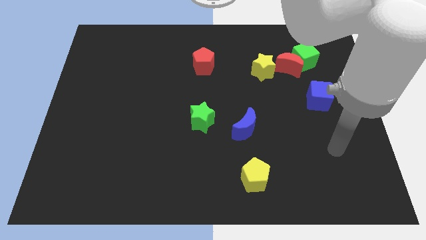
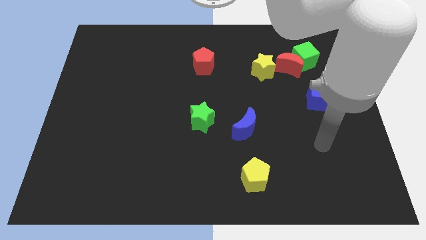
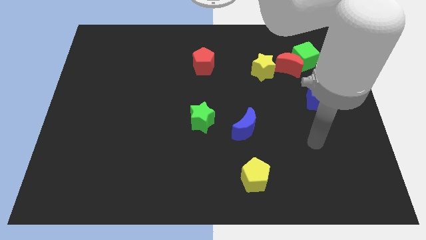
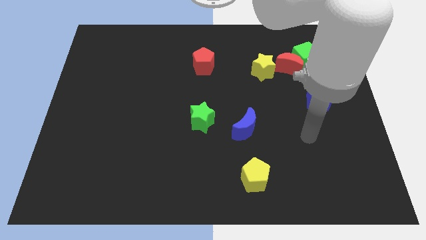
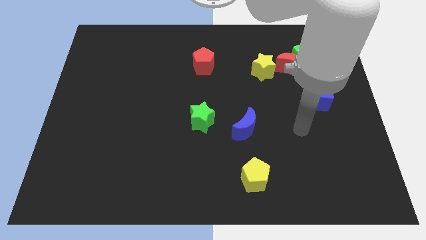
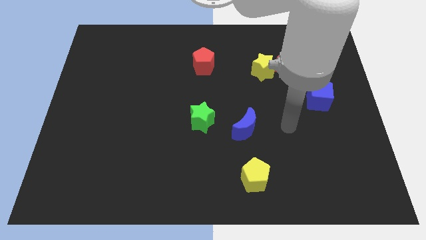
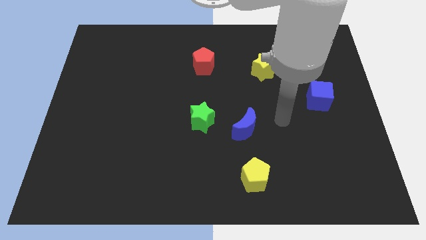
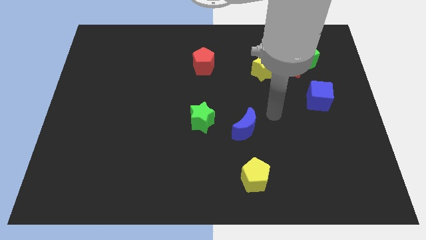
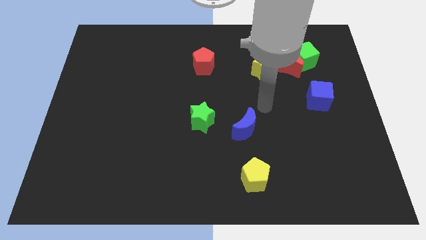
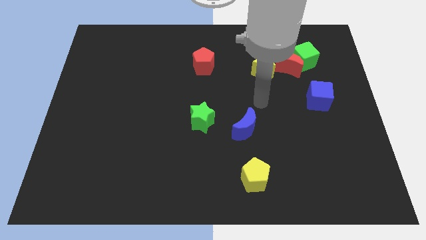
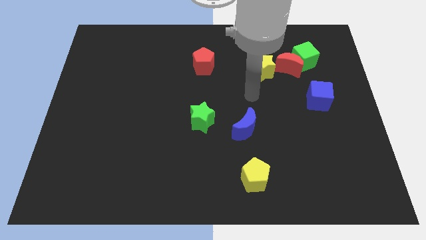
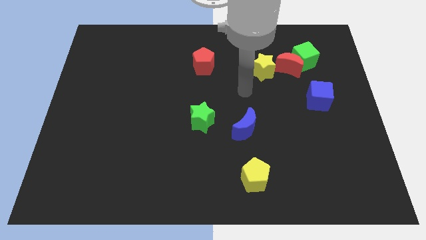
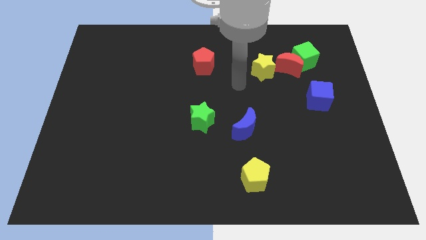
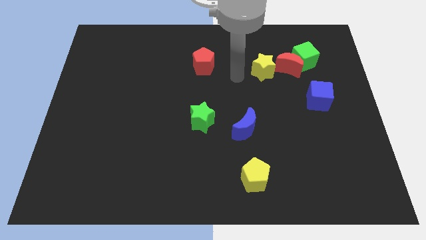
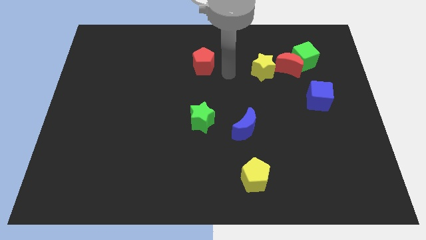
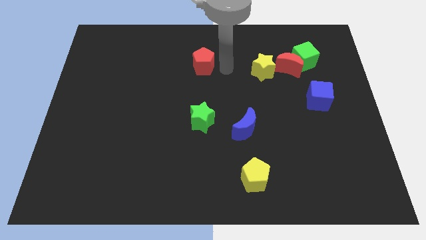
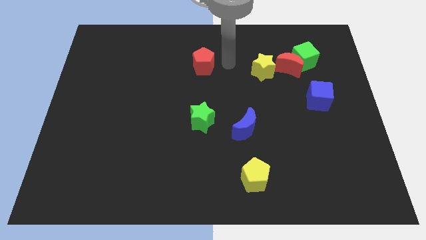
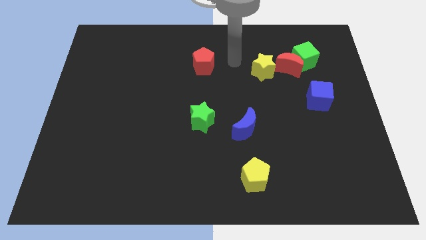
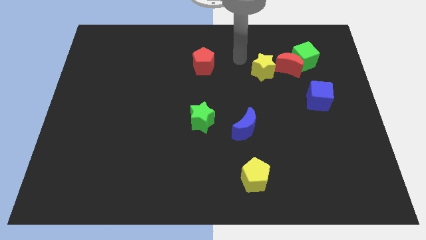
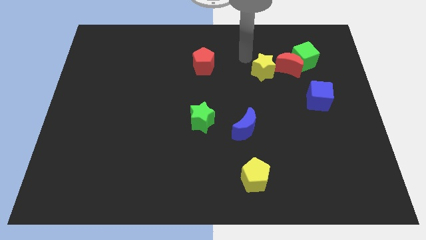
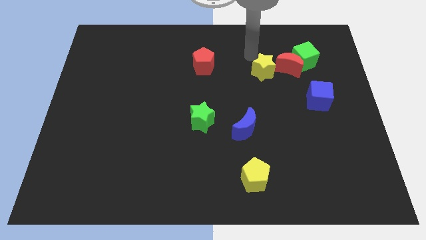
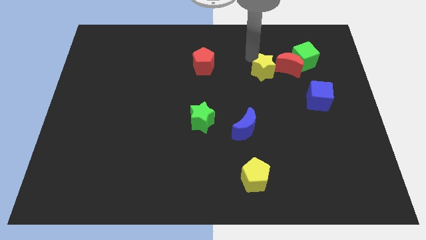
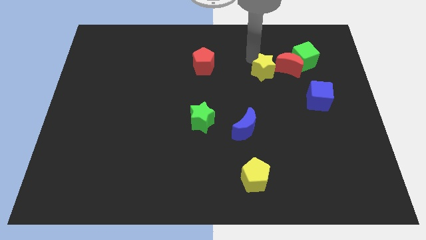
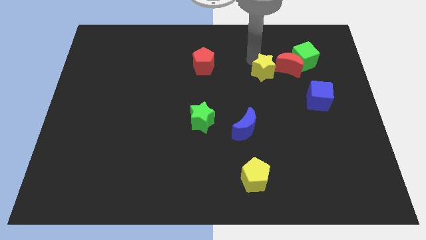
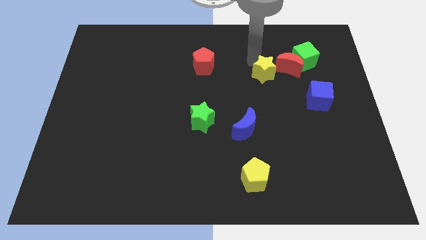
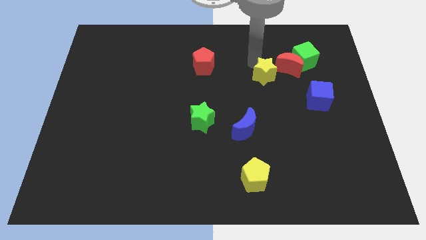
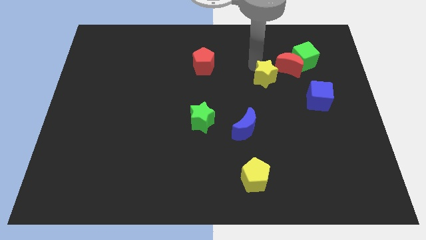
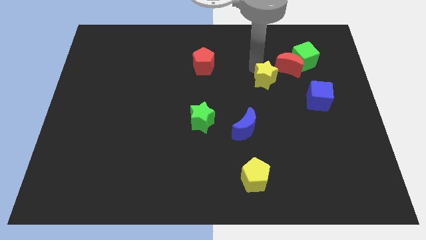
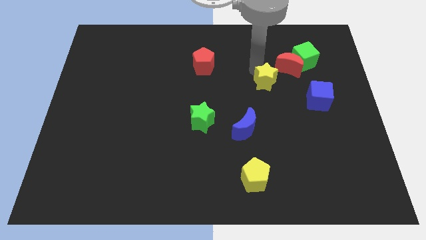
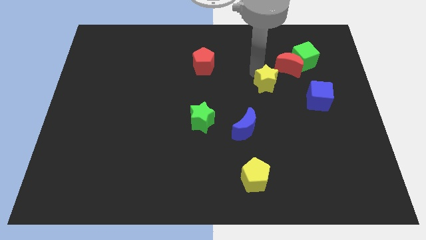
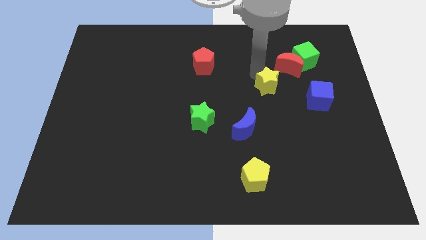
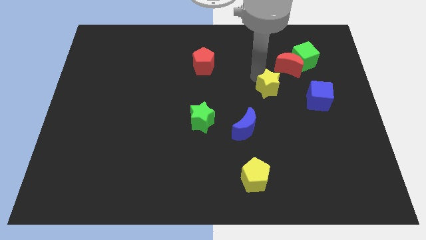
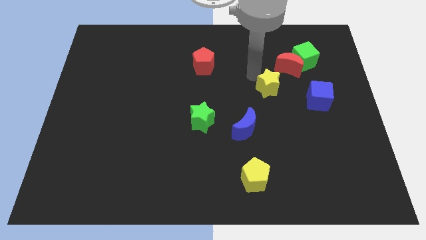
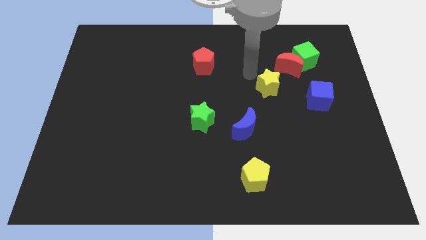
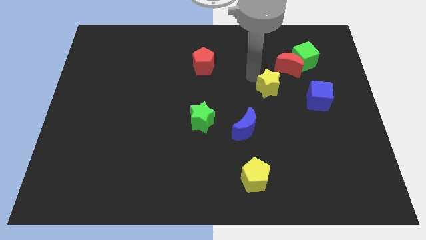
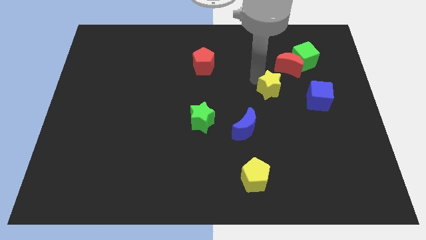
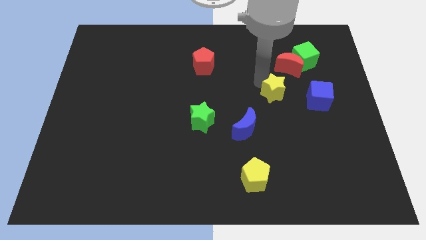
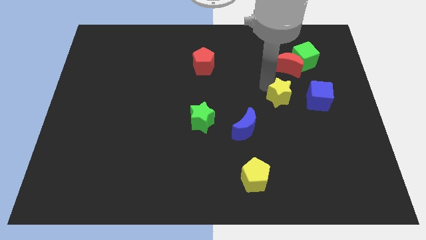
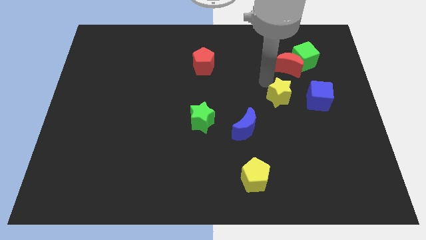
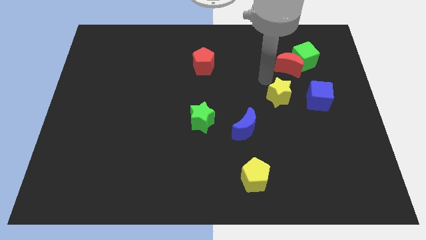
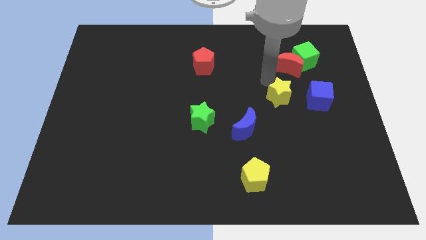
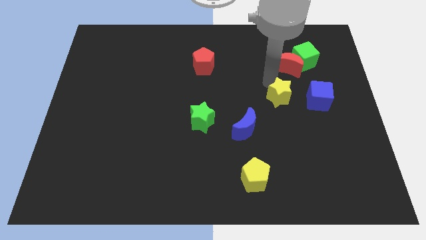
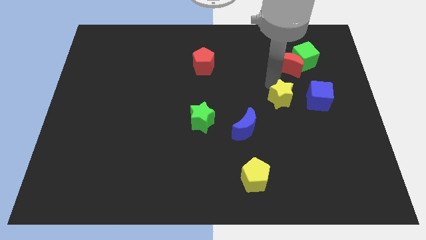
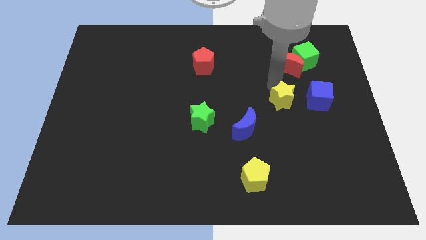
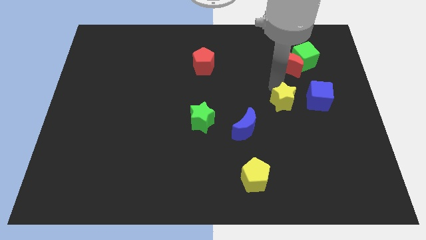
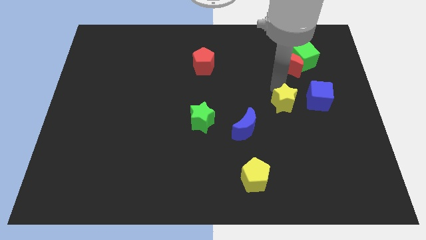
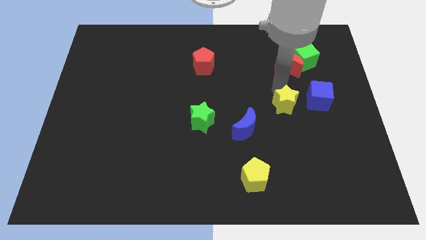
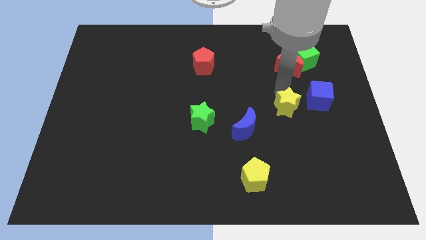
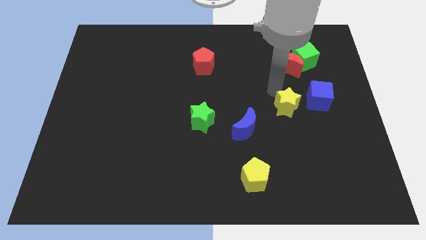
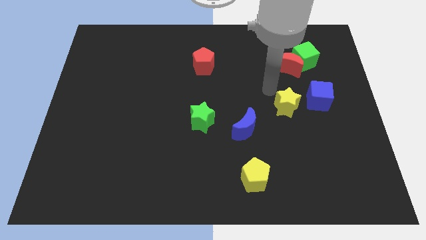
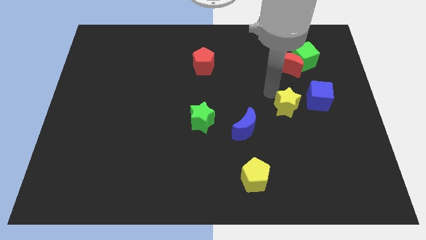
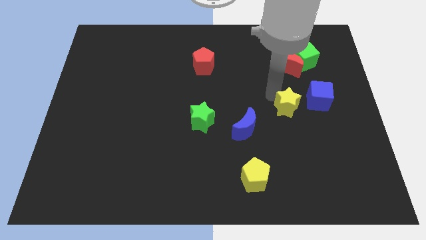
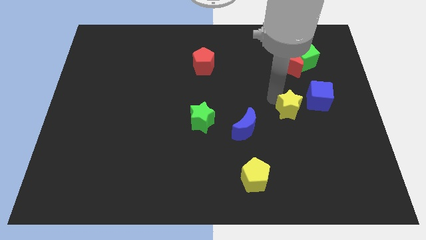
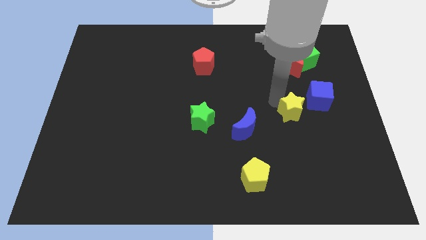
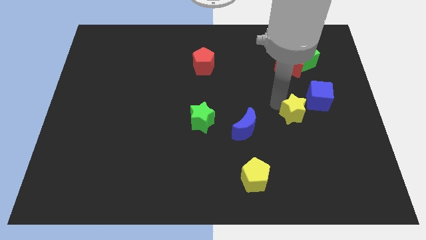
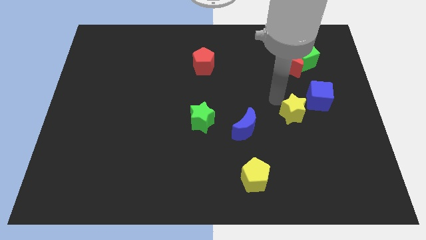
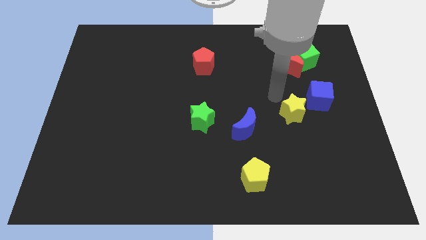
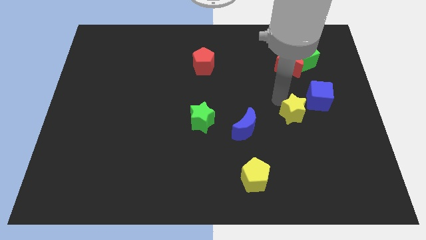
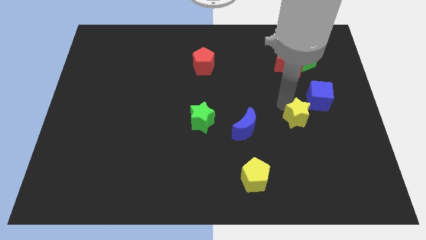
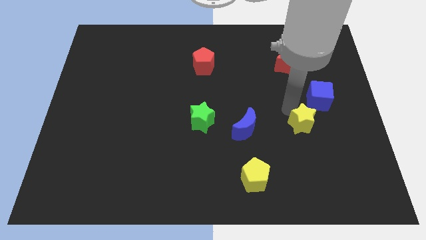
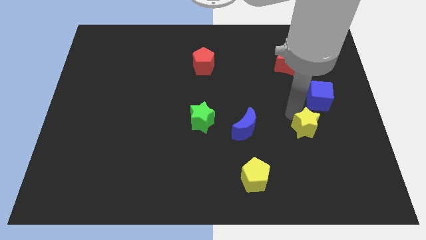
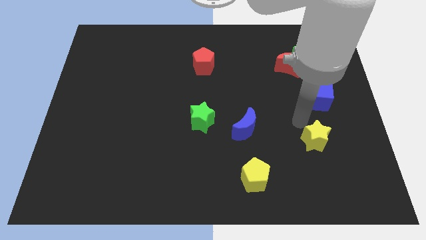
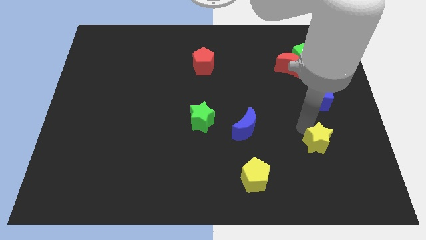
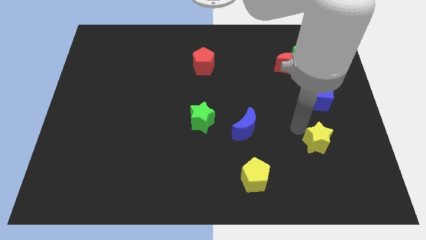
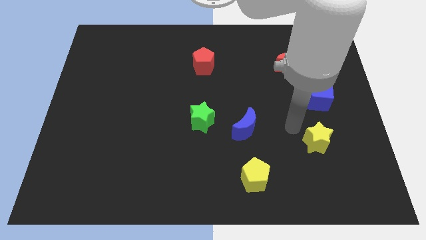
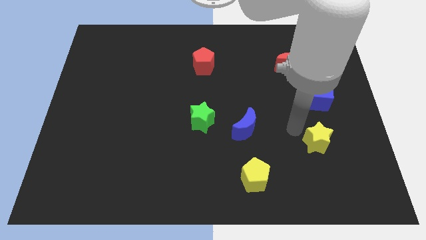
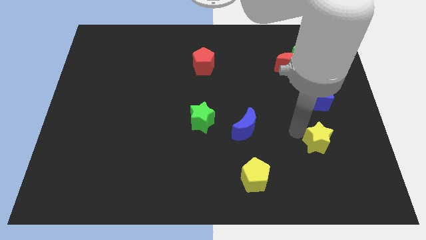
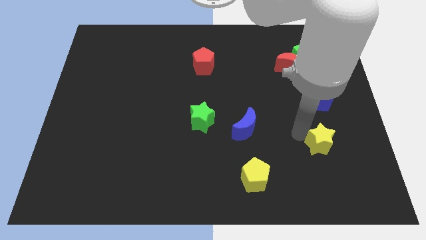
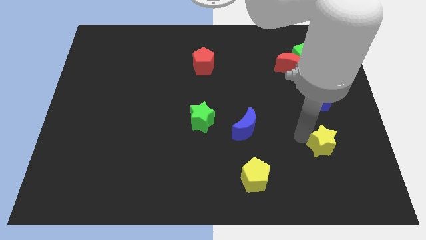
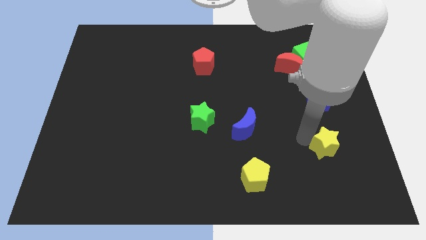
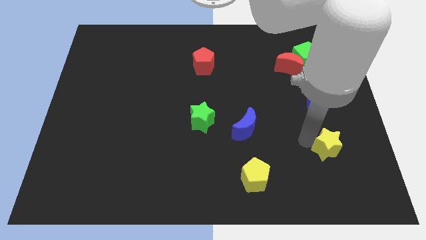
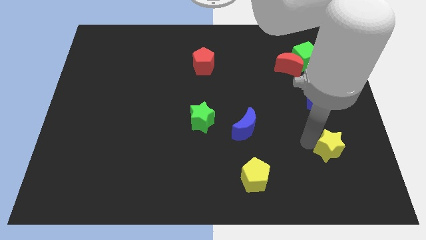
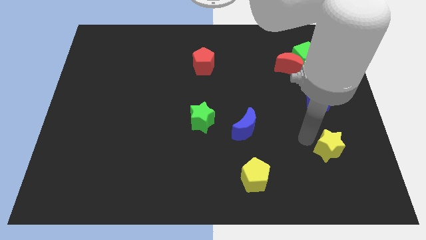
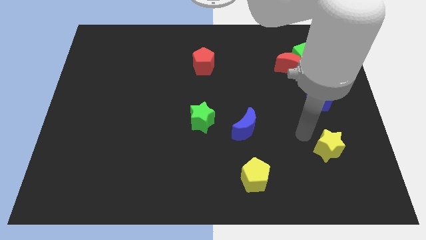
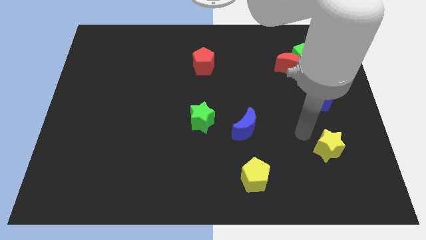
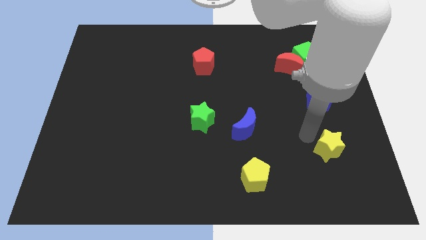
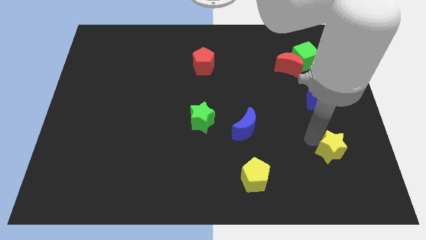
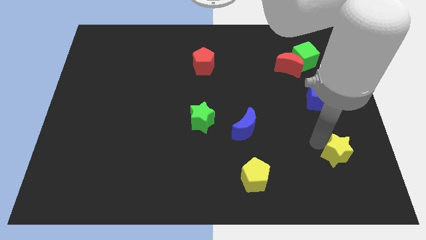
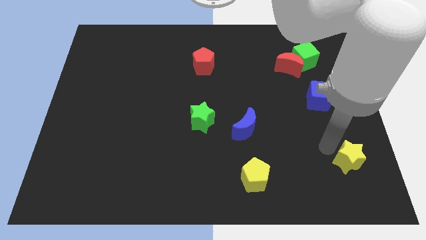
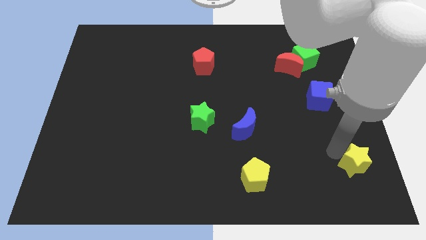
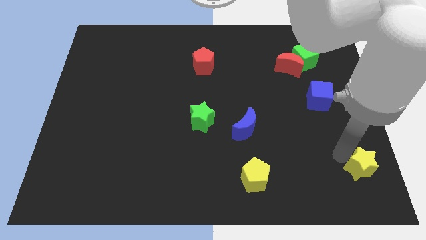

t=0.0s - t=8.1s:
push the yellow star to the bottom right corner

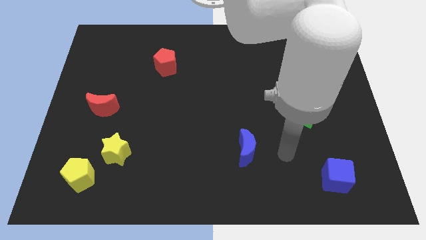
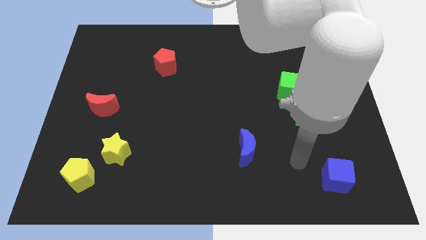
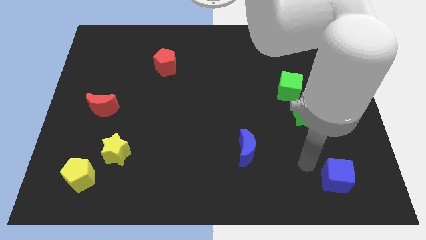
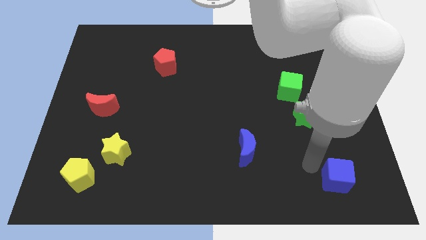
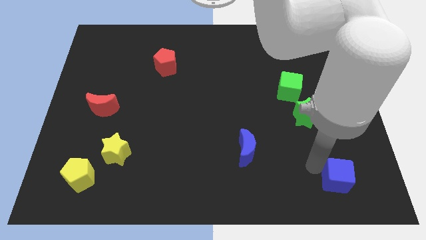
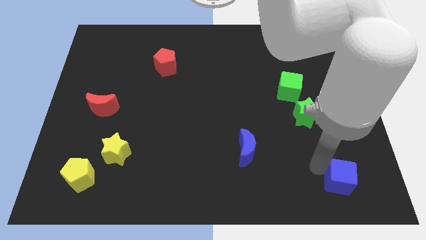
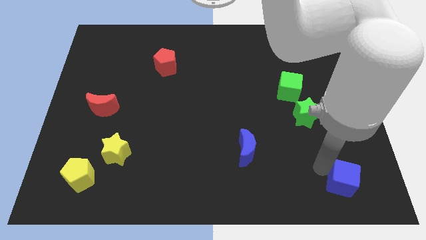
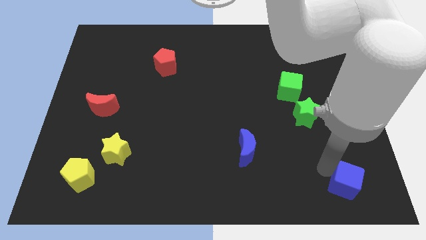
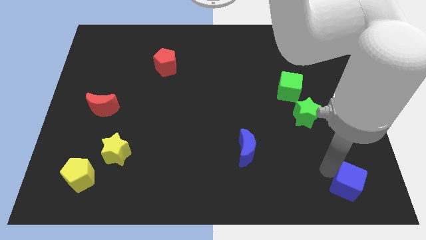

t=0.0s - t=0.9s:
push the blue cube to the bottom right of the board
